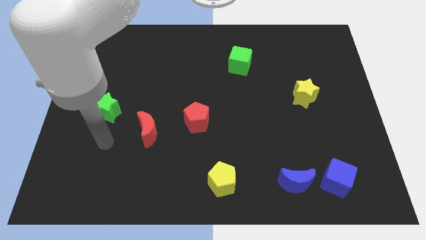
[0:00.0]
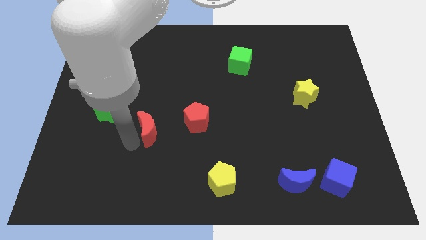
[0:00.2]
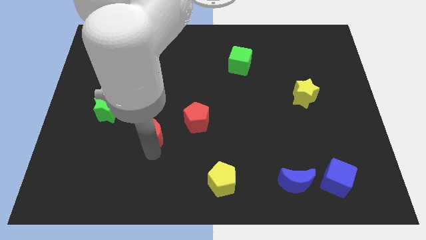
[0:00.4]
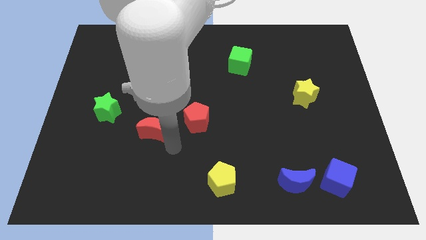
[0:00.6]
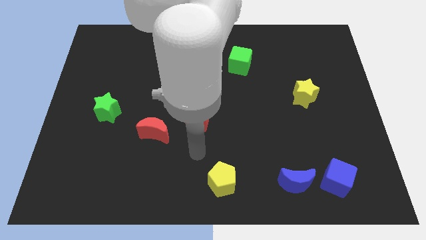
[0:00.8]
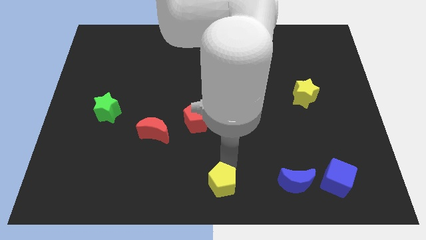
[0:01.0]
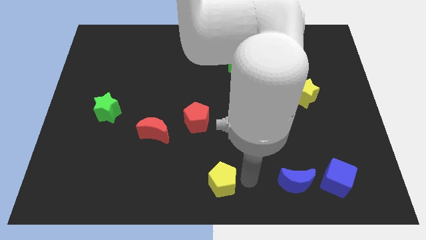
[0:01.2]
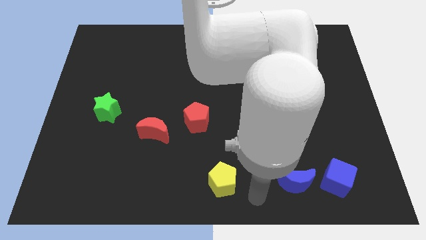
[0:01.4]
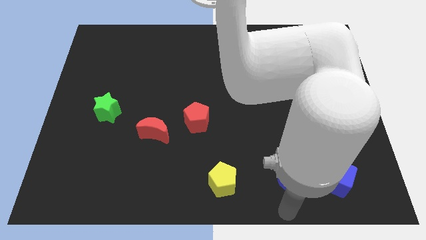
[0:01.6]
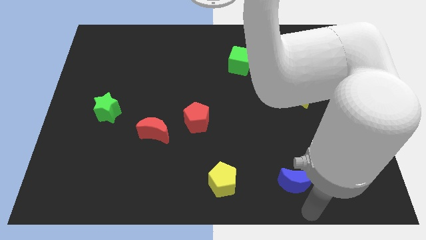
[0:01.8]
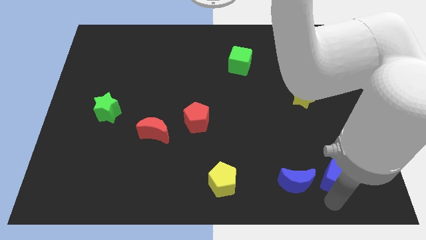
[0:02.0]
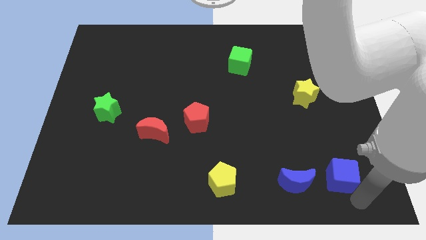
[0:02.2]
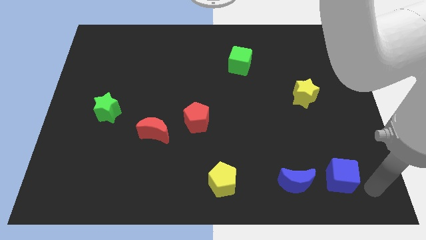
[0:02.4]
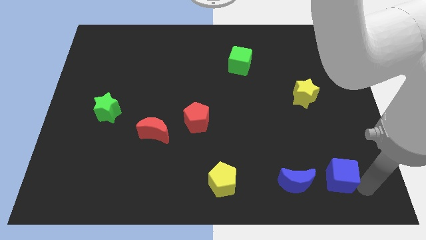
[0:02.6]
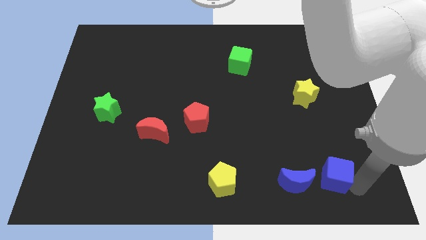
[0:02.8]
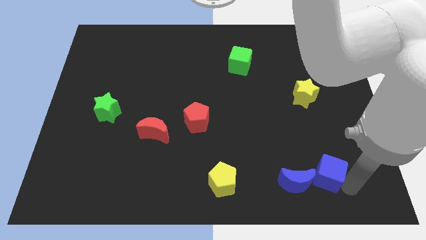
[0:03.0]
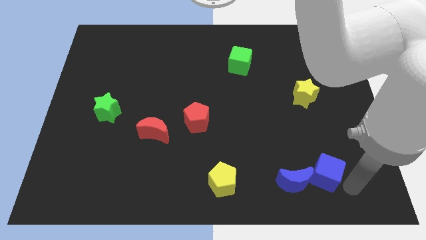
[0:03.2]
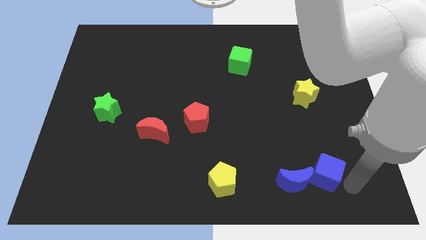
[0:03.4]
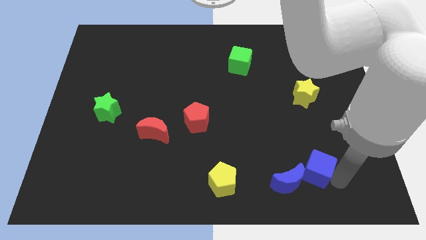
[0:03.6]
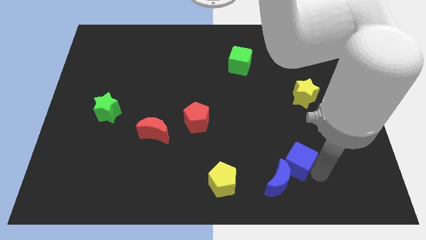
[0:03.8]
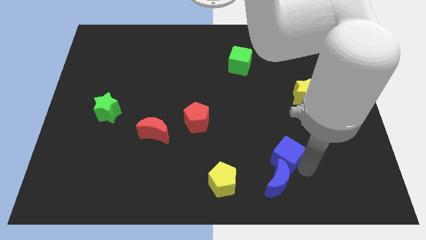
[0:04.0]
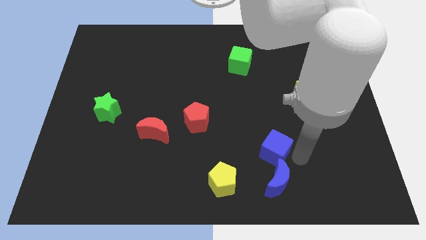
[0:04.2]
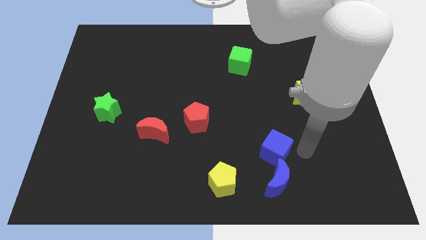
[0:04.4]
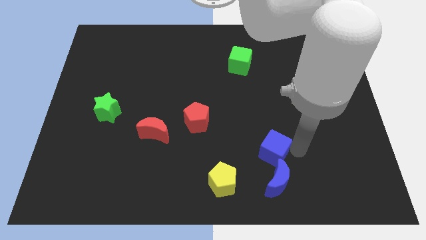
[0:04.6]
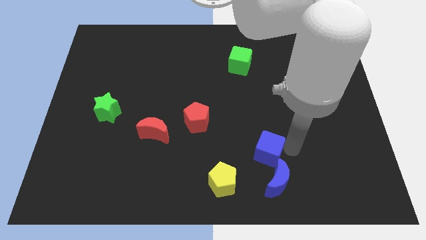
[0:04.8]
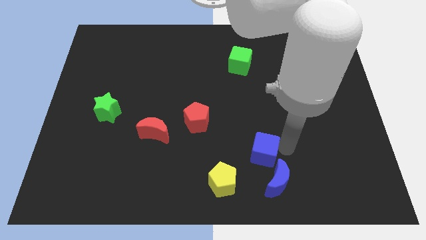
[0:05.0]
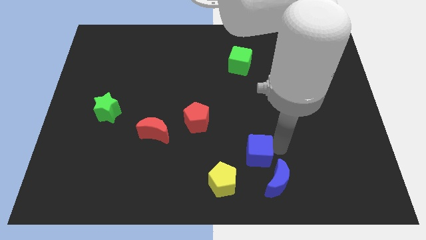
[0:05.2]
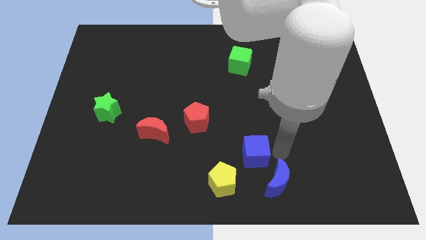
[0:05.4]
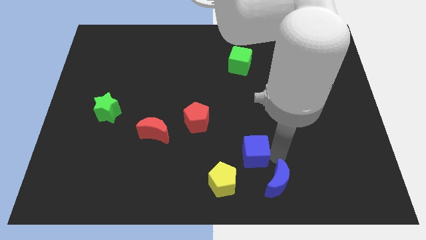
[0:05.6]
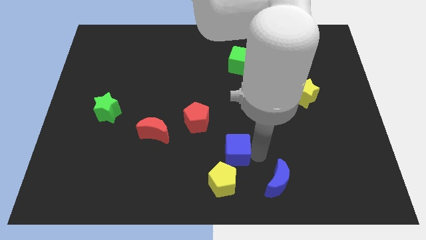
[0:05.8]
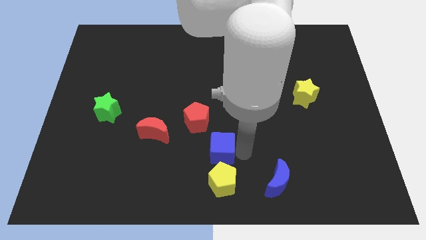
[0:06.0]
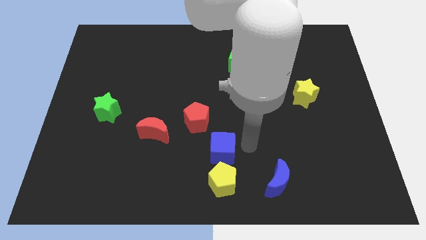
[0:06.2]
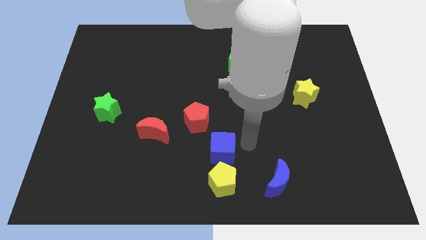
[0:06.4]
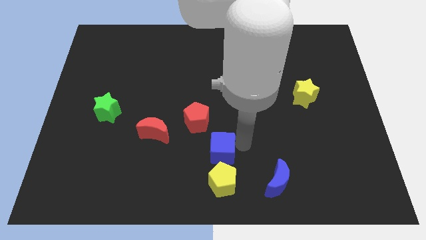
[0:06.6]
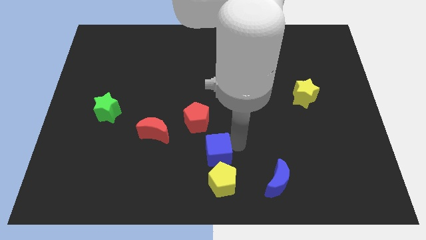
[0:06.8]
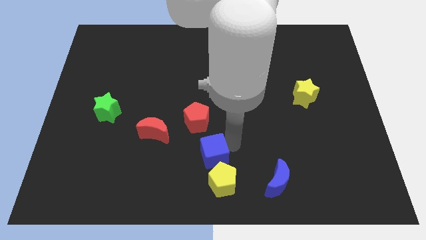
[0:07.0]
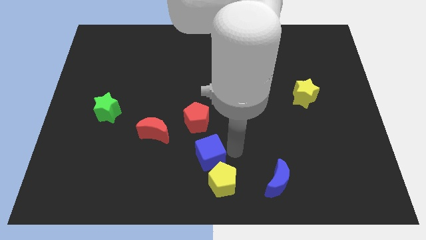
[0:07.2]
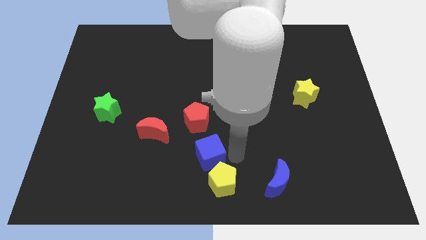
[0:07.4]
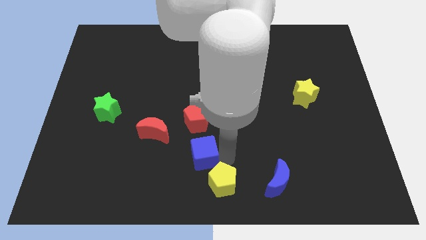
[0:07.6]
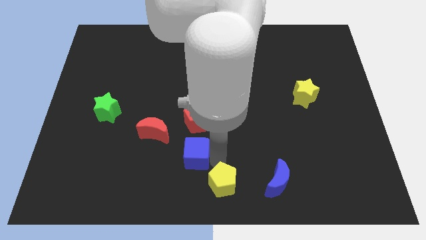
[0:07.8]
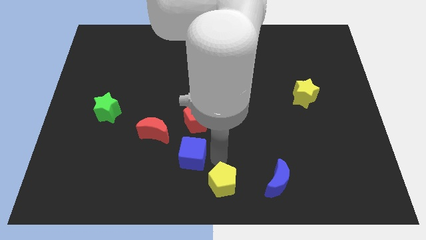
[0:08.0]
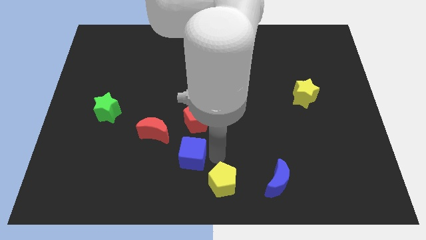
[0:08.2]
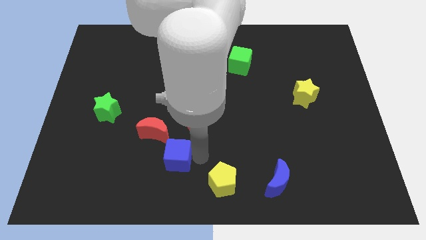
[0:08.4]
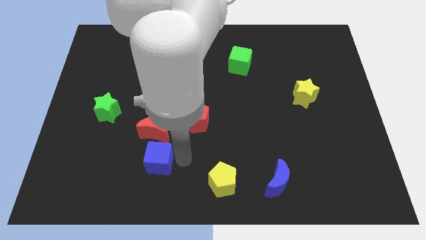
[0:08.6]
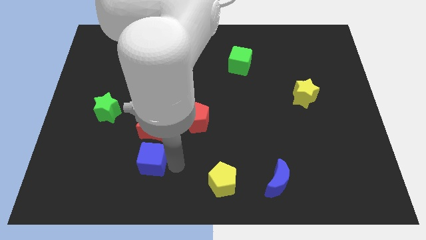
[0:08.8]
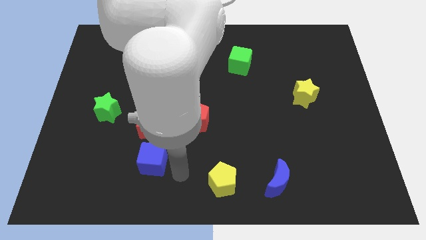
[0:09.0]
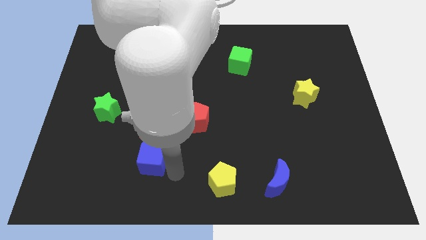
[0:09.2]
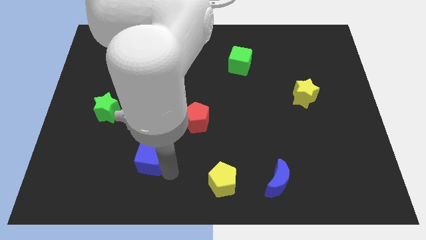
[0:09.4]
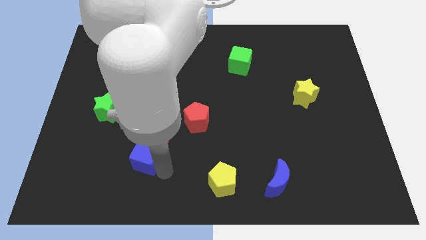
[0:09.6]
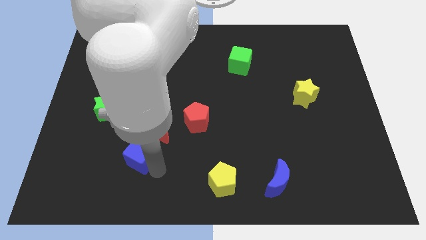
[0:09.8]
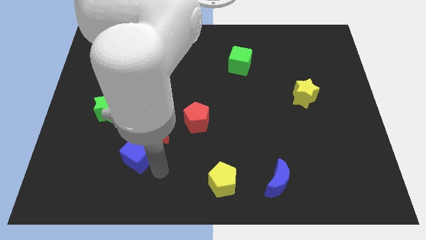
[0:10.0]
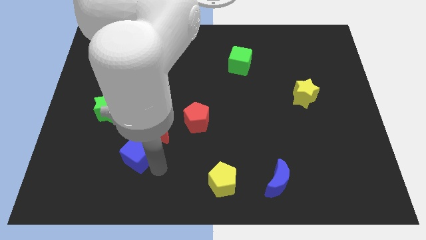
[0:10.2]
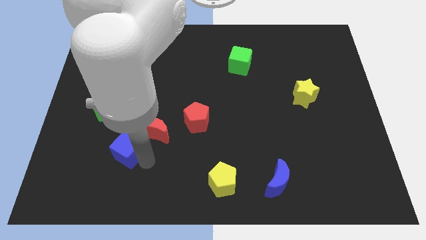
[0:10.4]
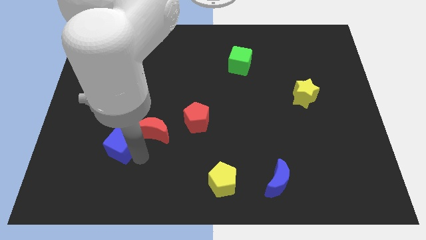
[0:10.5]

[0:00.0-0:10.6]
move the blue cube to the bottom of the green star

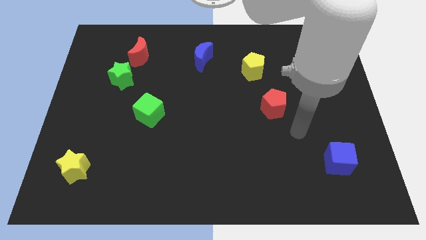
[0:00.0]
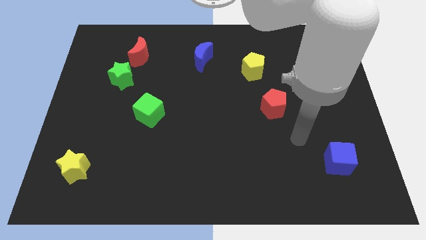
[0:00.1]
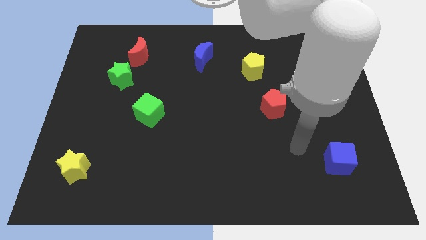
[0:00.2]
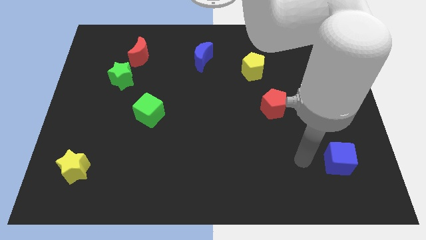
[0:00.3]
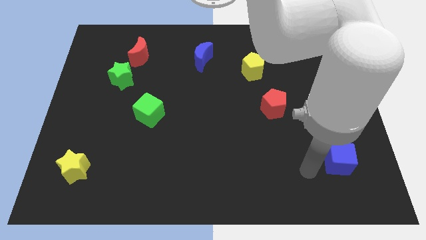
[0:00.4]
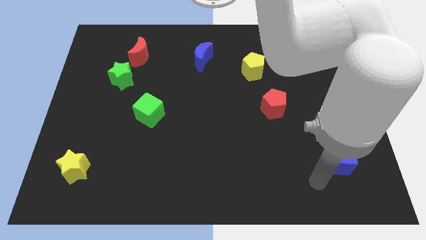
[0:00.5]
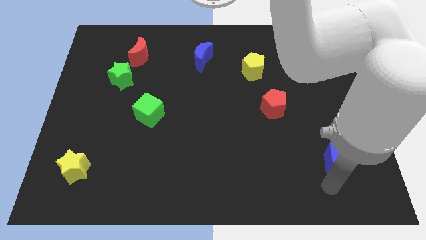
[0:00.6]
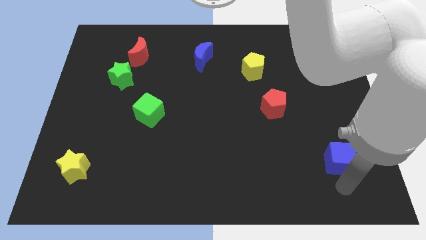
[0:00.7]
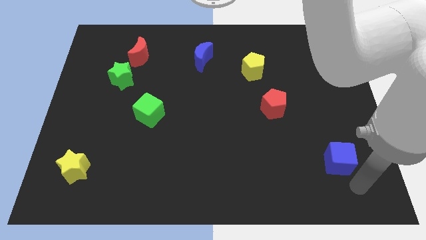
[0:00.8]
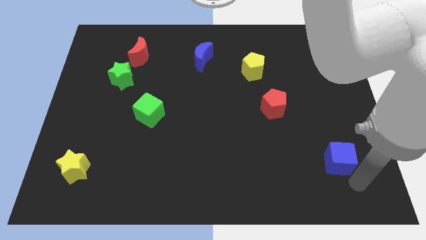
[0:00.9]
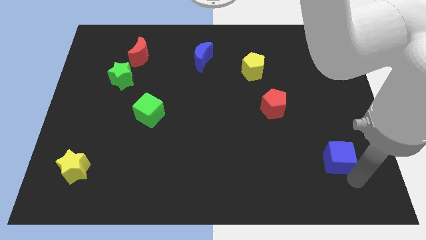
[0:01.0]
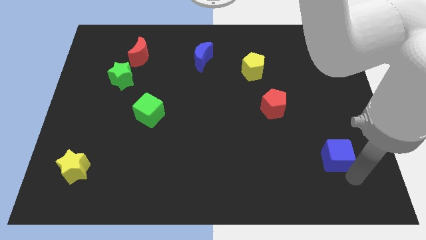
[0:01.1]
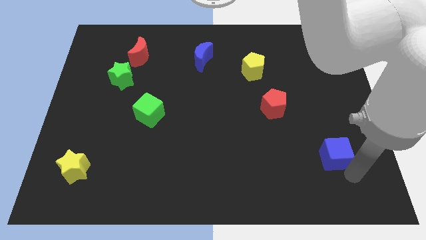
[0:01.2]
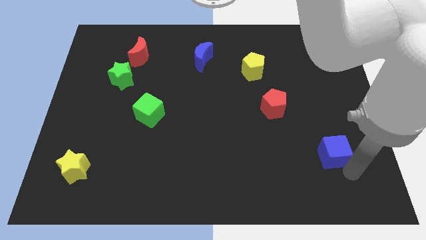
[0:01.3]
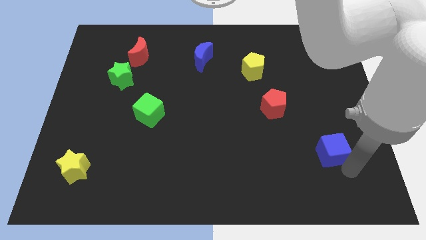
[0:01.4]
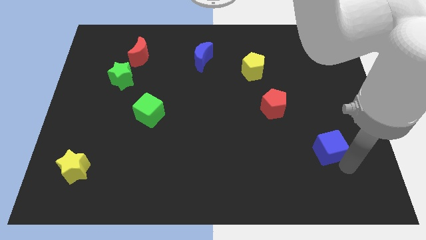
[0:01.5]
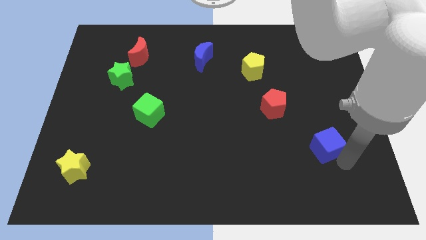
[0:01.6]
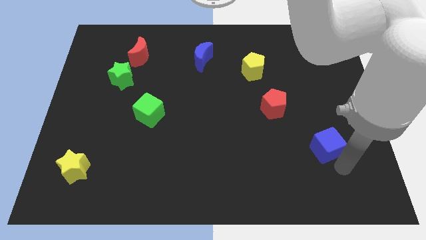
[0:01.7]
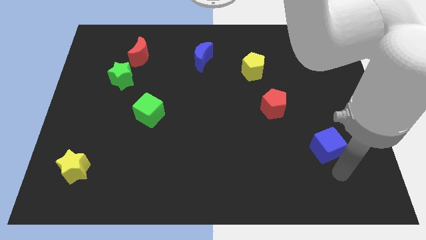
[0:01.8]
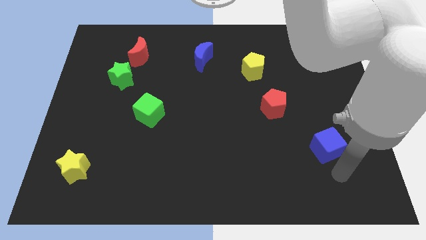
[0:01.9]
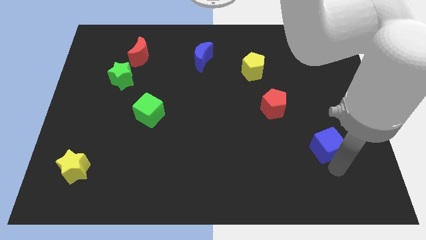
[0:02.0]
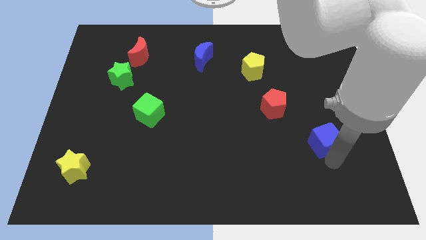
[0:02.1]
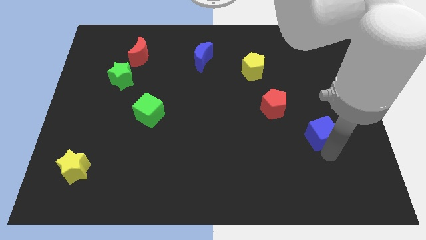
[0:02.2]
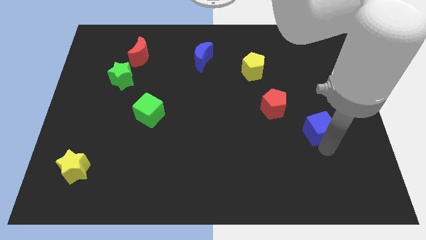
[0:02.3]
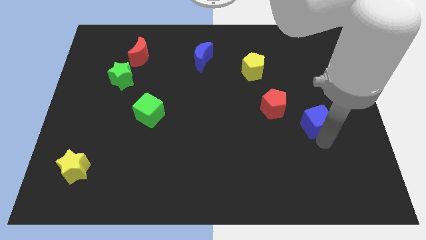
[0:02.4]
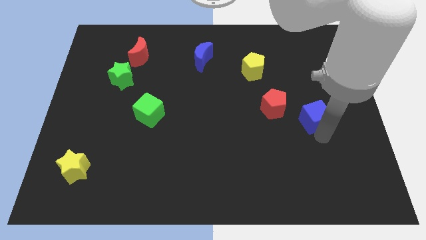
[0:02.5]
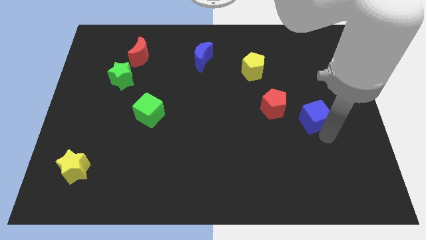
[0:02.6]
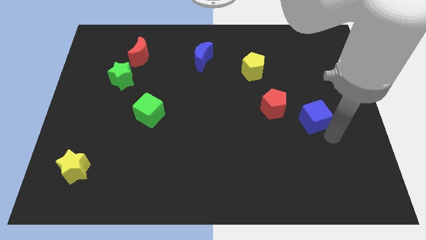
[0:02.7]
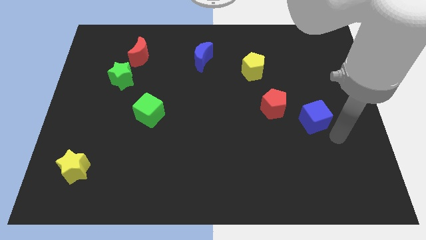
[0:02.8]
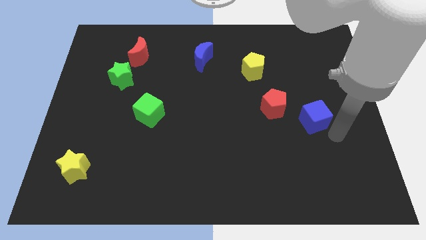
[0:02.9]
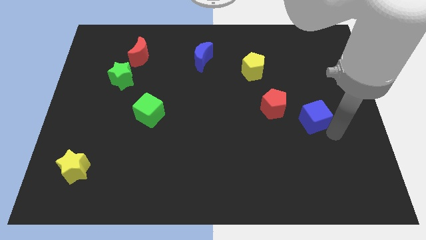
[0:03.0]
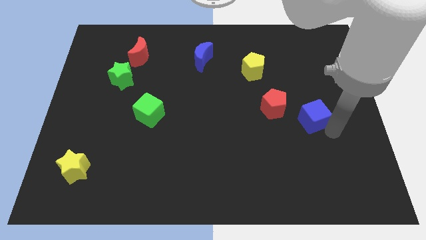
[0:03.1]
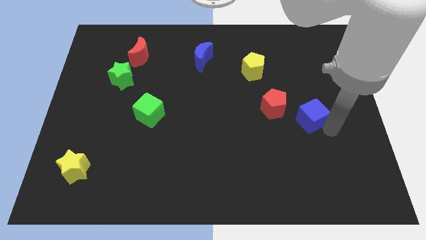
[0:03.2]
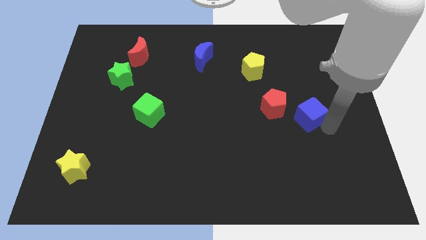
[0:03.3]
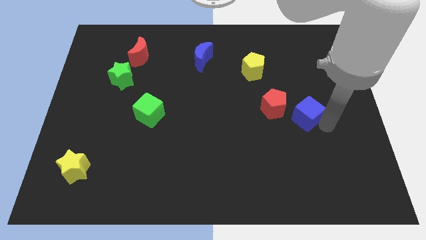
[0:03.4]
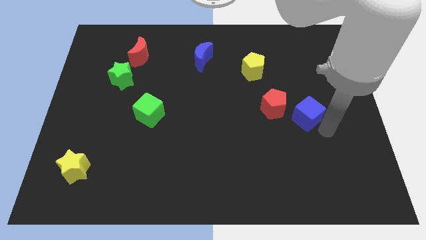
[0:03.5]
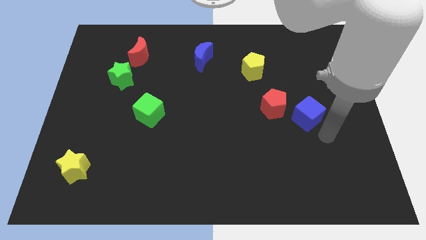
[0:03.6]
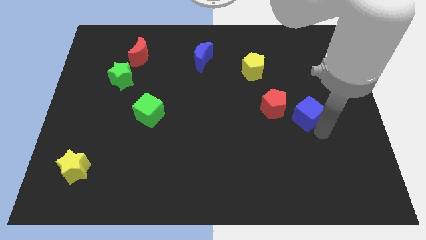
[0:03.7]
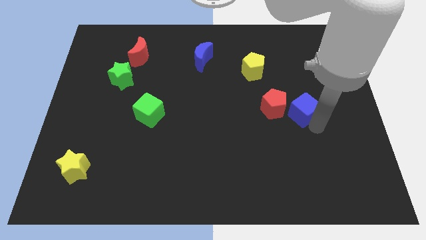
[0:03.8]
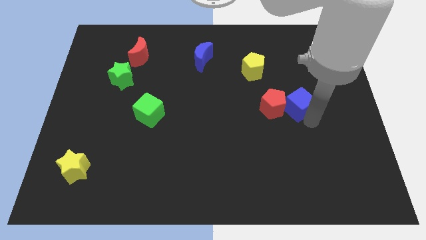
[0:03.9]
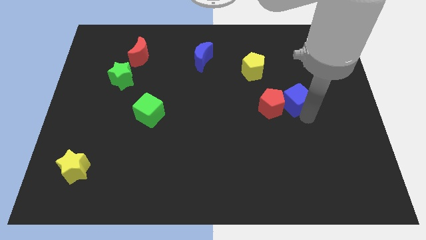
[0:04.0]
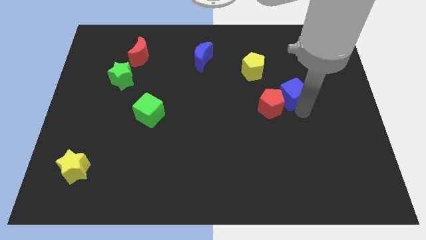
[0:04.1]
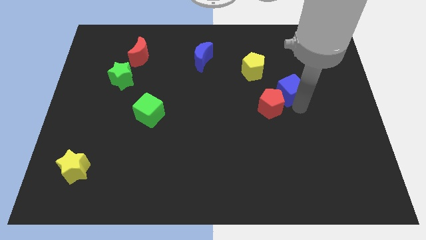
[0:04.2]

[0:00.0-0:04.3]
move the blue cube to the top of the red pentagon
